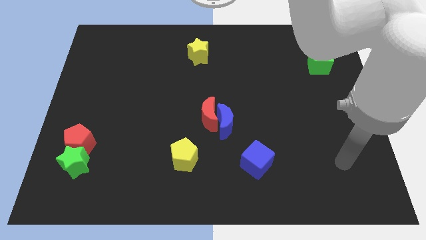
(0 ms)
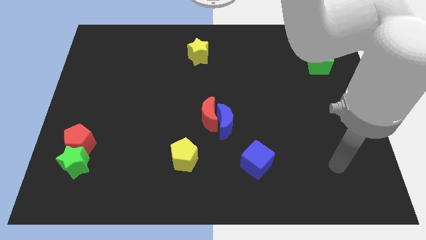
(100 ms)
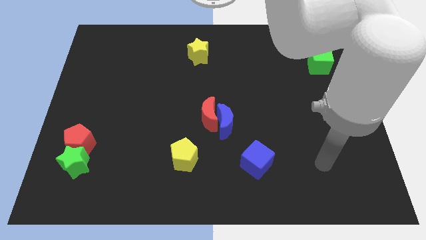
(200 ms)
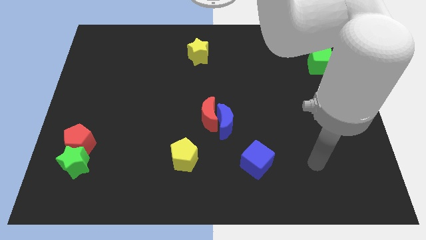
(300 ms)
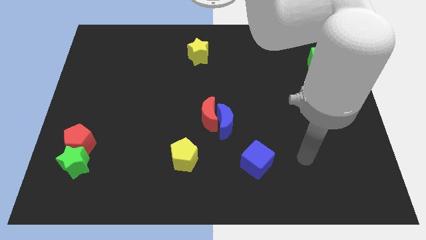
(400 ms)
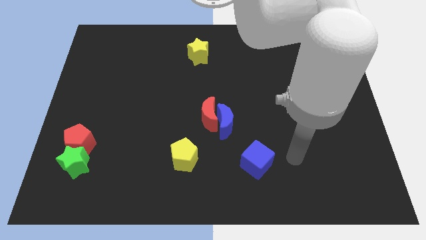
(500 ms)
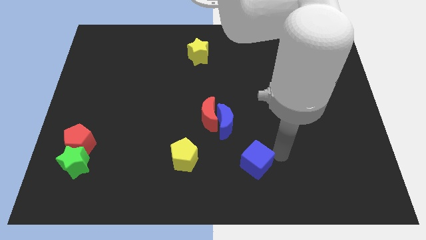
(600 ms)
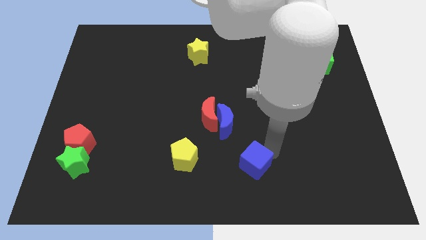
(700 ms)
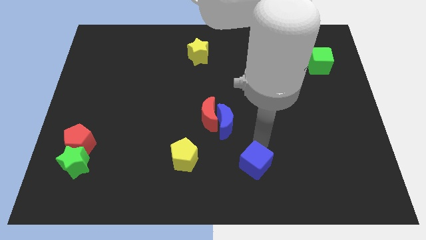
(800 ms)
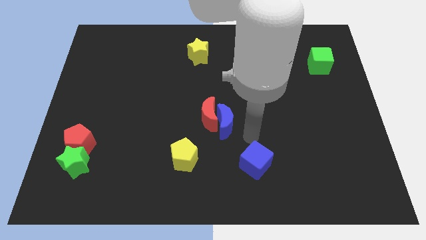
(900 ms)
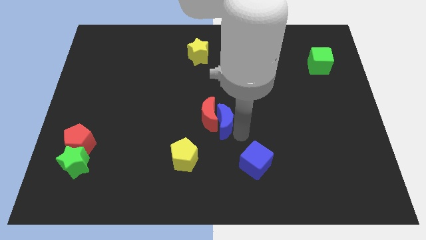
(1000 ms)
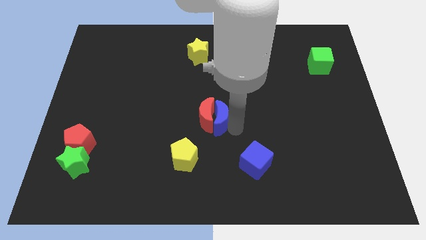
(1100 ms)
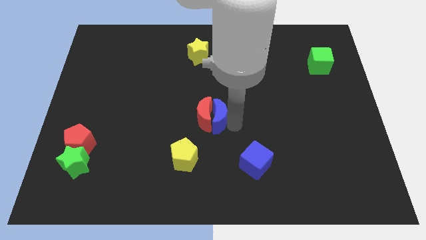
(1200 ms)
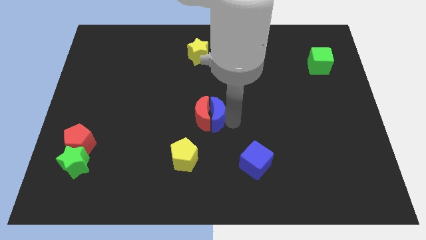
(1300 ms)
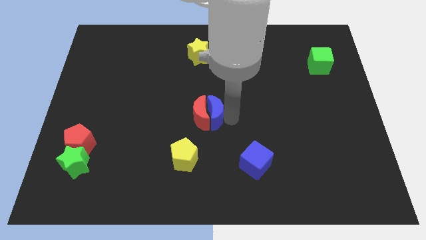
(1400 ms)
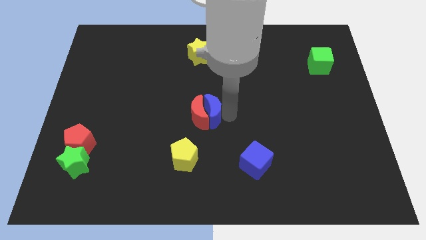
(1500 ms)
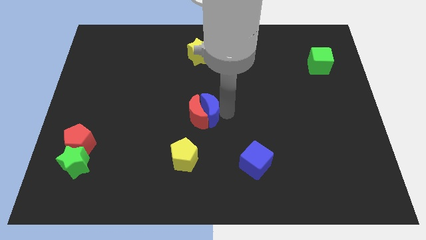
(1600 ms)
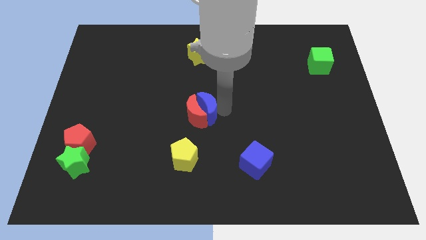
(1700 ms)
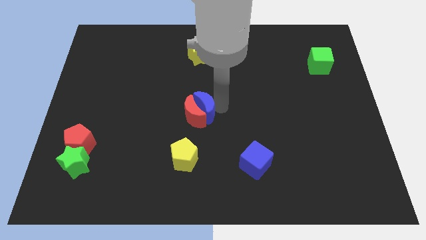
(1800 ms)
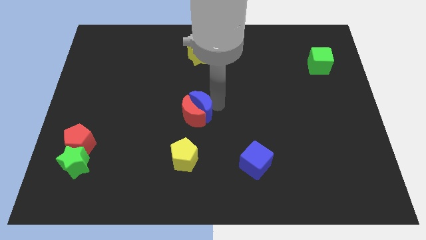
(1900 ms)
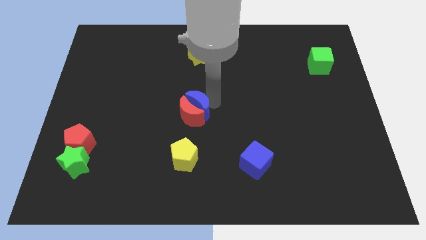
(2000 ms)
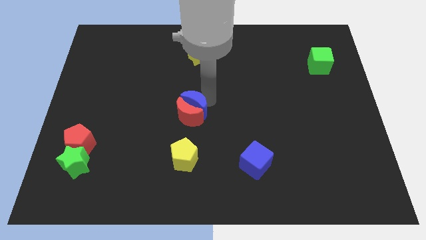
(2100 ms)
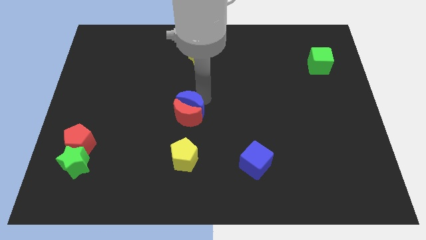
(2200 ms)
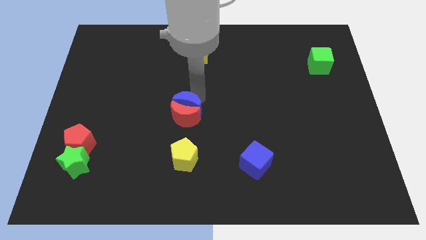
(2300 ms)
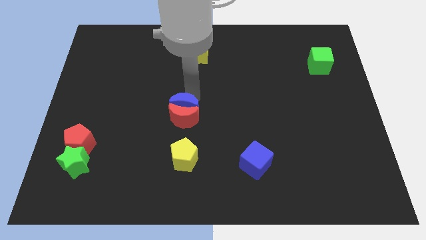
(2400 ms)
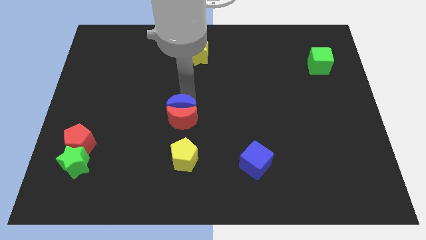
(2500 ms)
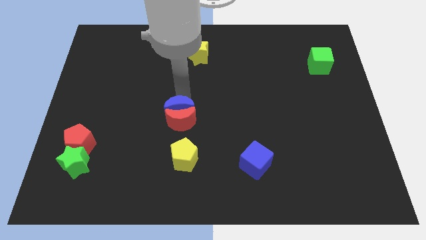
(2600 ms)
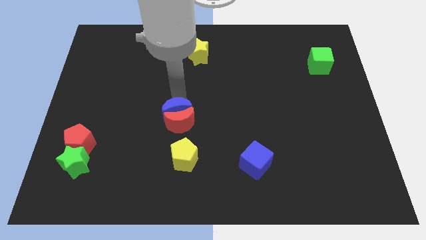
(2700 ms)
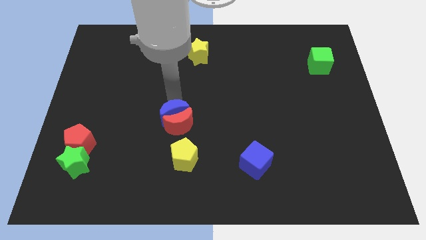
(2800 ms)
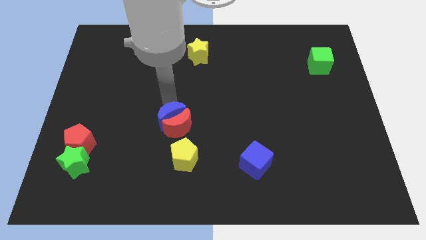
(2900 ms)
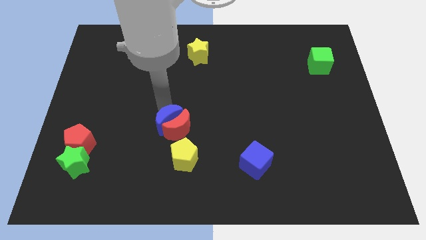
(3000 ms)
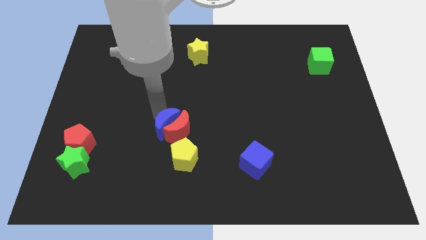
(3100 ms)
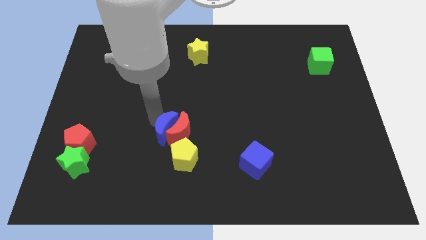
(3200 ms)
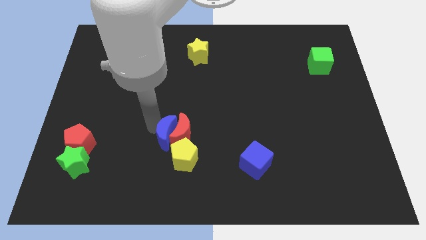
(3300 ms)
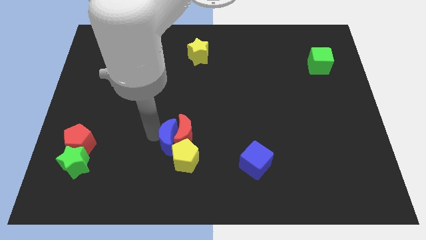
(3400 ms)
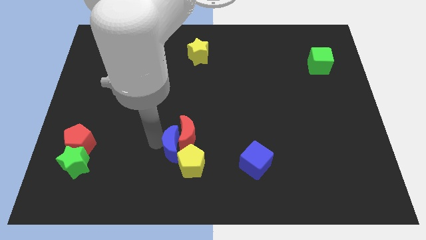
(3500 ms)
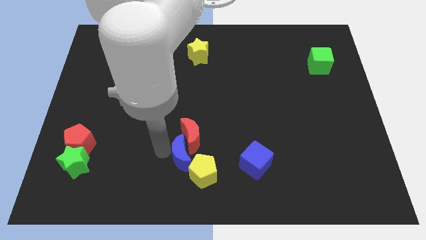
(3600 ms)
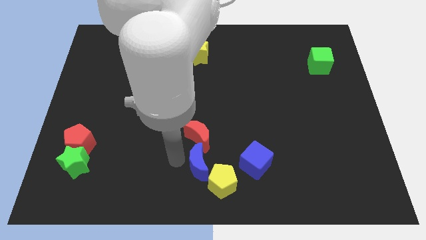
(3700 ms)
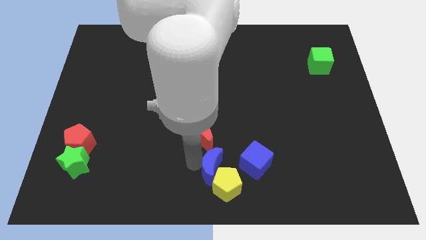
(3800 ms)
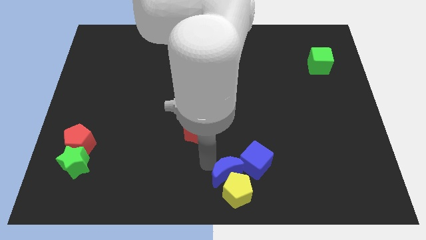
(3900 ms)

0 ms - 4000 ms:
move the red moon away from the blue moon

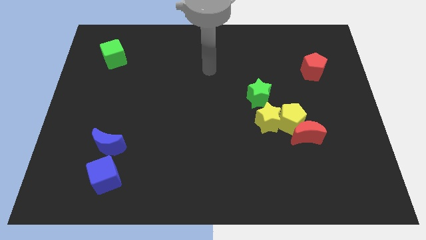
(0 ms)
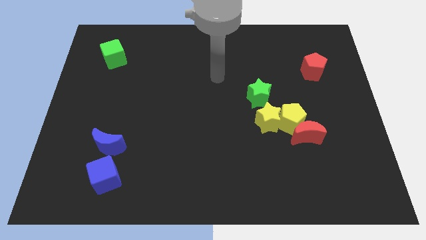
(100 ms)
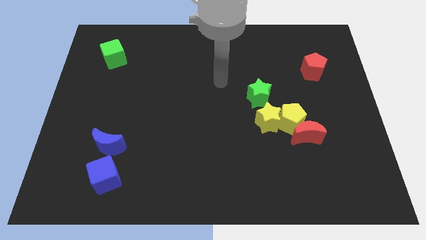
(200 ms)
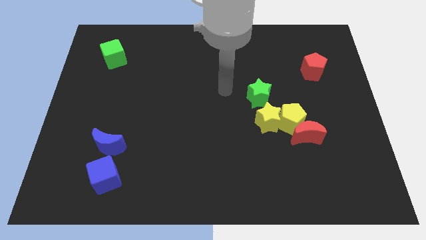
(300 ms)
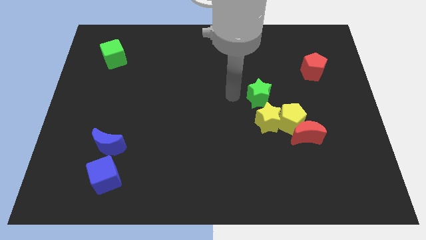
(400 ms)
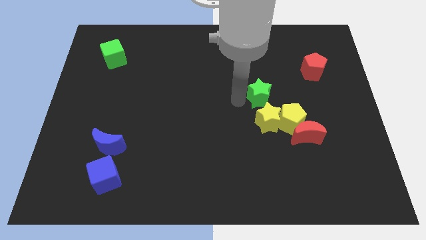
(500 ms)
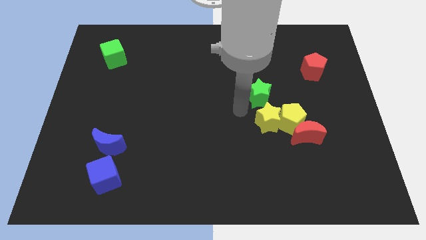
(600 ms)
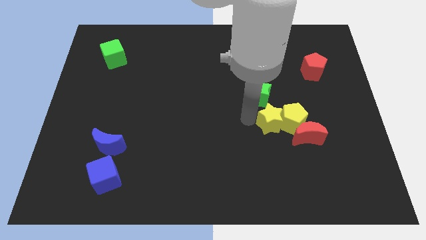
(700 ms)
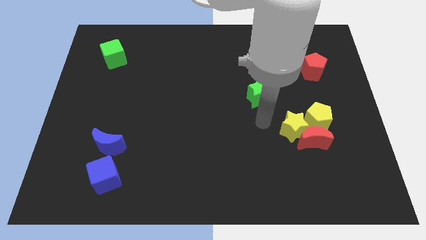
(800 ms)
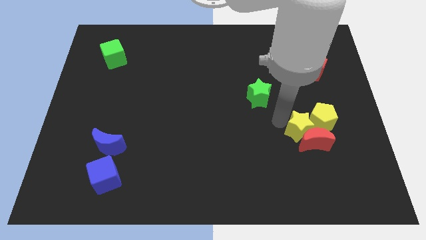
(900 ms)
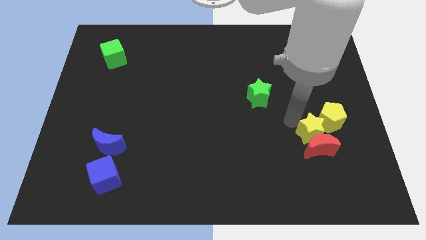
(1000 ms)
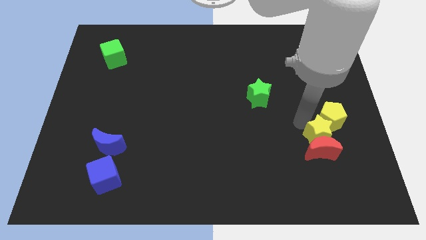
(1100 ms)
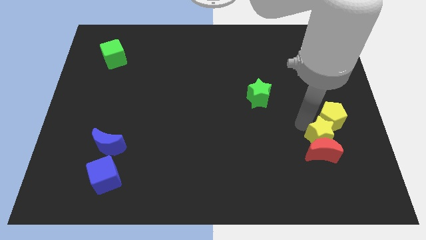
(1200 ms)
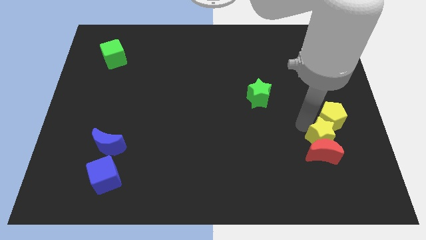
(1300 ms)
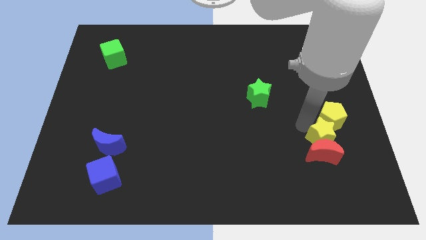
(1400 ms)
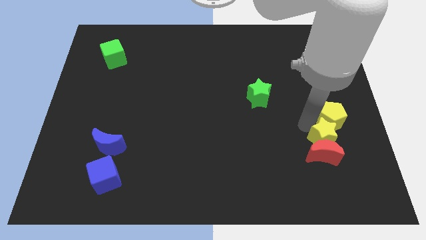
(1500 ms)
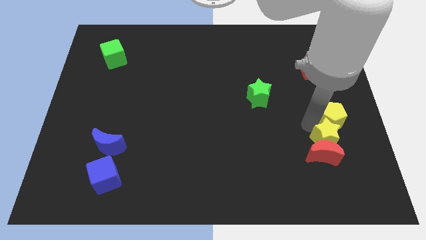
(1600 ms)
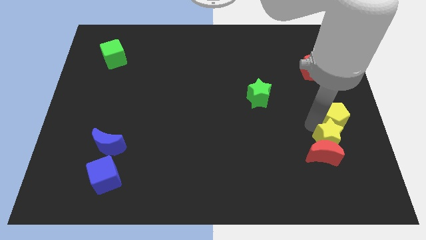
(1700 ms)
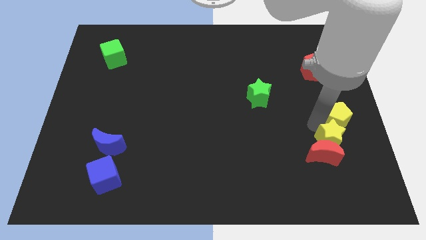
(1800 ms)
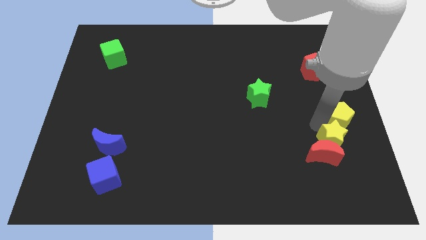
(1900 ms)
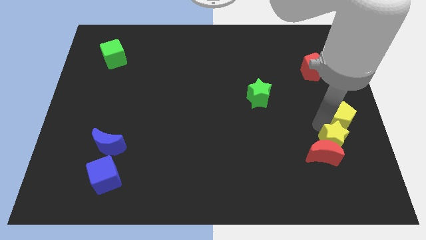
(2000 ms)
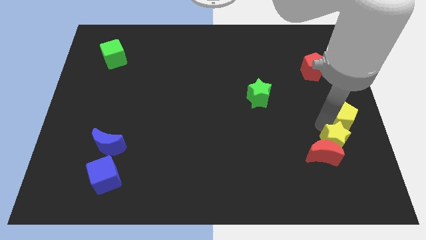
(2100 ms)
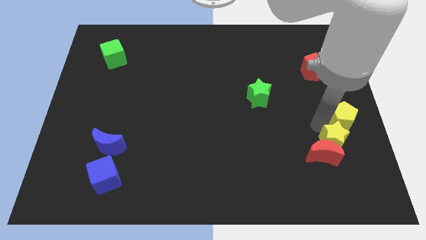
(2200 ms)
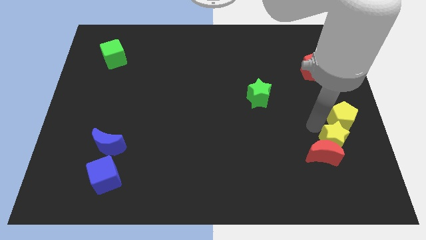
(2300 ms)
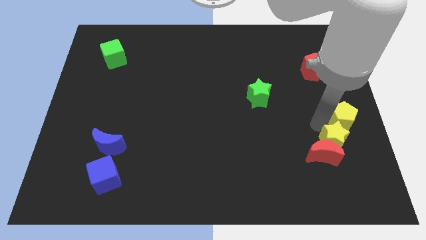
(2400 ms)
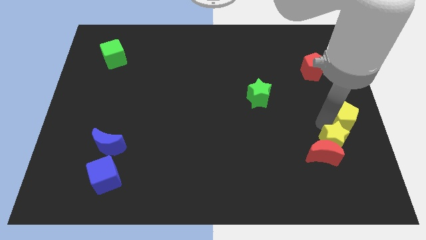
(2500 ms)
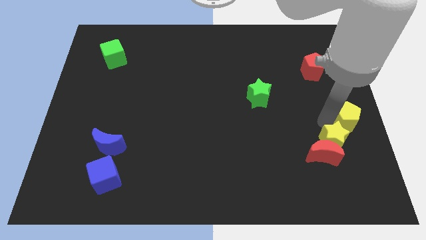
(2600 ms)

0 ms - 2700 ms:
separate the yellow pentagon from the red moon, yellow star, and green star

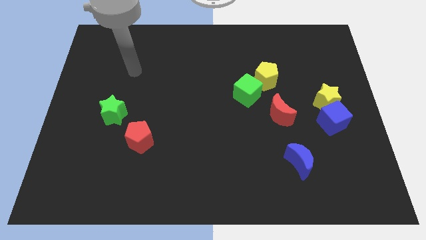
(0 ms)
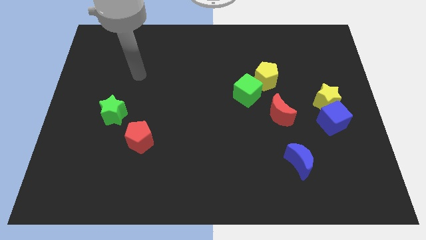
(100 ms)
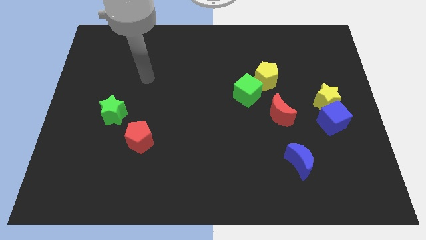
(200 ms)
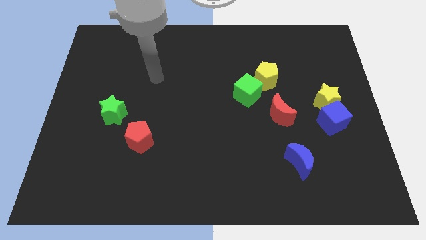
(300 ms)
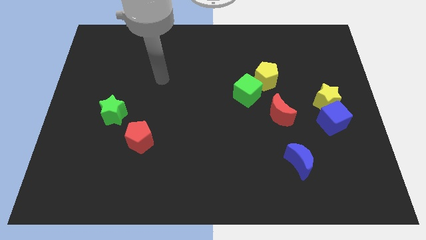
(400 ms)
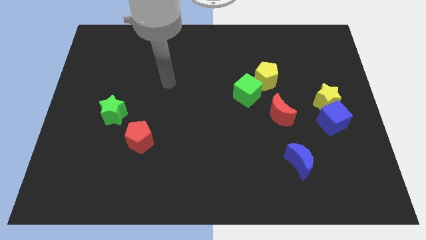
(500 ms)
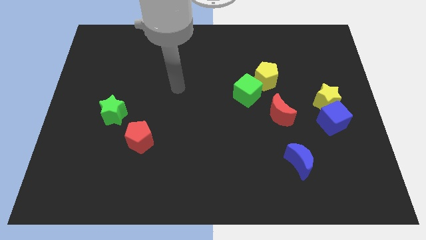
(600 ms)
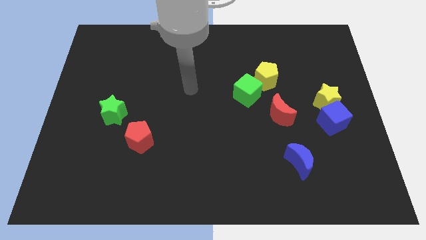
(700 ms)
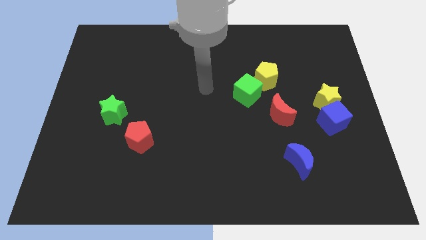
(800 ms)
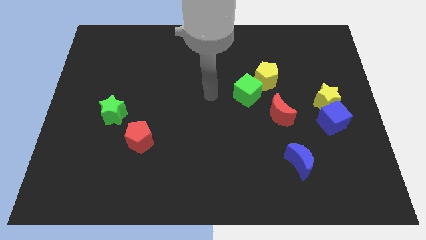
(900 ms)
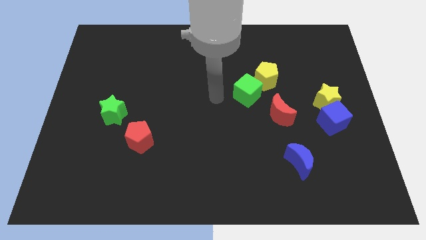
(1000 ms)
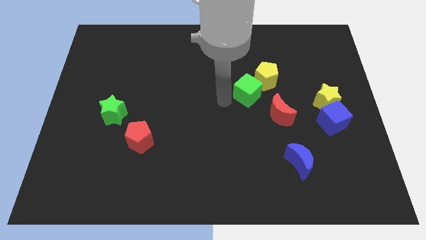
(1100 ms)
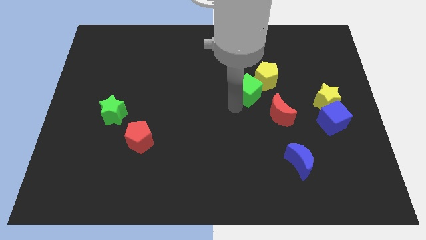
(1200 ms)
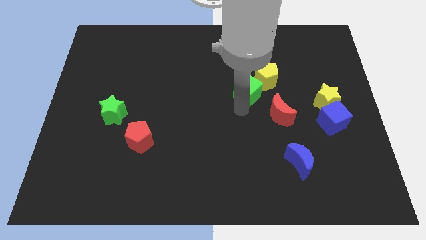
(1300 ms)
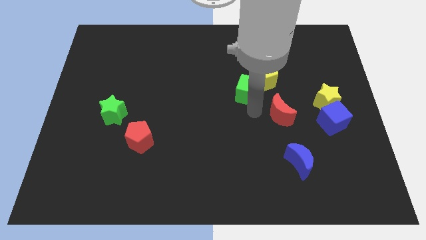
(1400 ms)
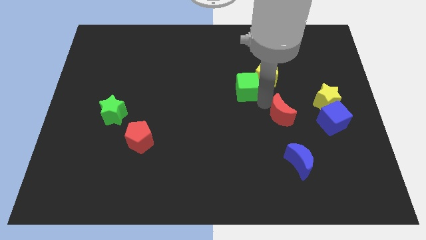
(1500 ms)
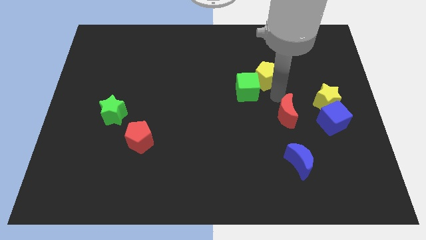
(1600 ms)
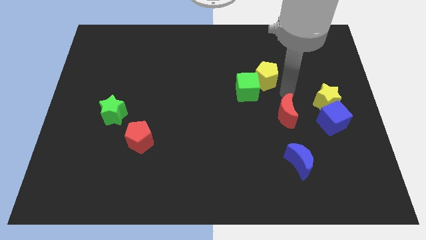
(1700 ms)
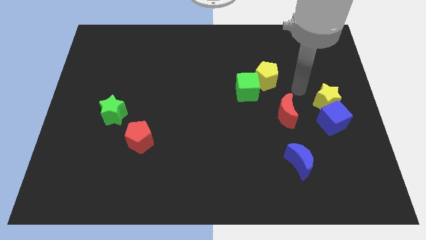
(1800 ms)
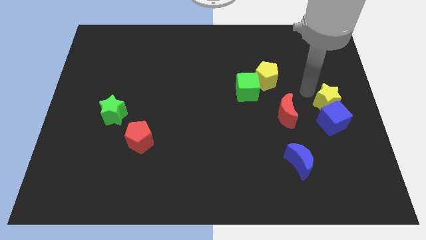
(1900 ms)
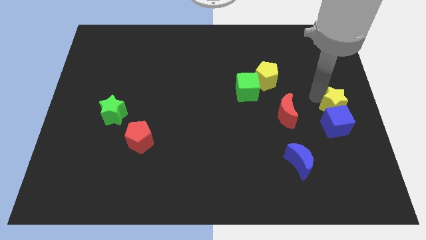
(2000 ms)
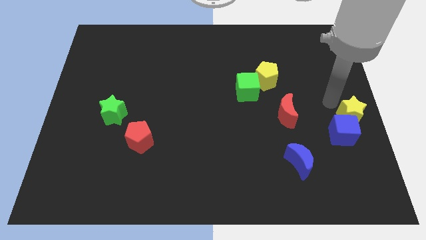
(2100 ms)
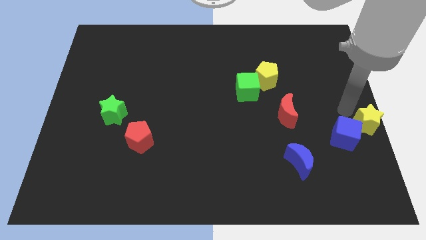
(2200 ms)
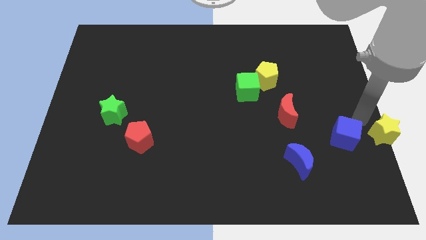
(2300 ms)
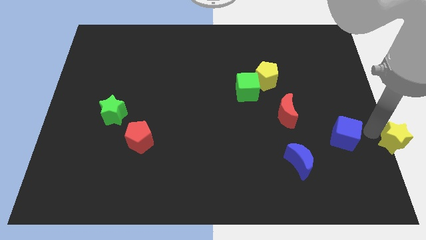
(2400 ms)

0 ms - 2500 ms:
move the blue cube away from the yellow star

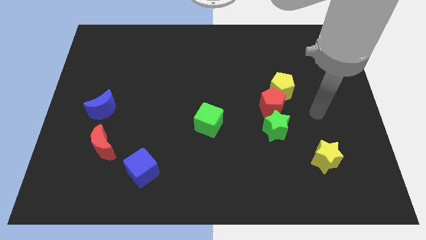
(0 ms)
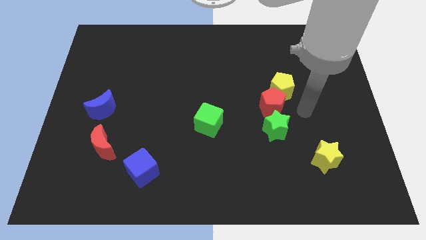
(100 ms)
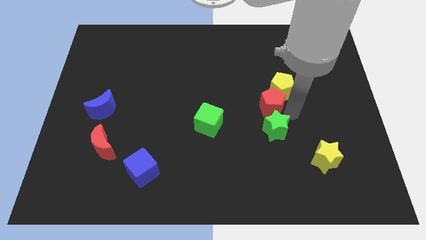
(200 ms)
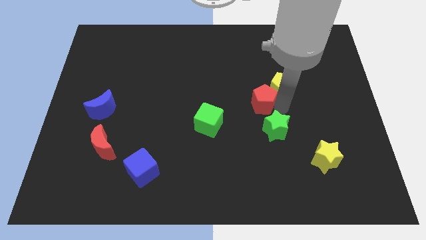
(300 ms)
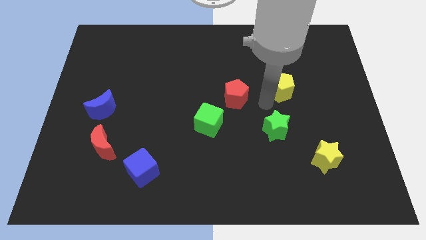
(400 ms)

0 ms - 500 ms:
move the yellow pentagon away from the red pentagon
